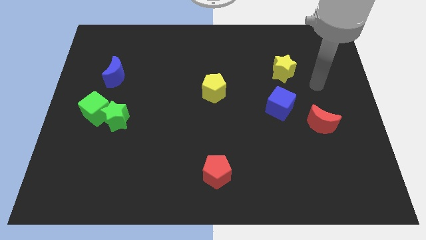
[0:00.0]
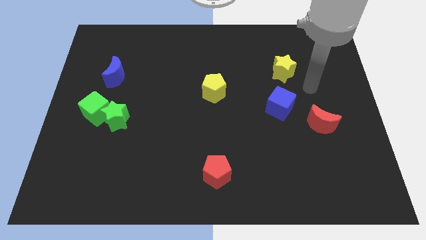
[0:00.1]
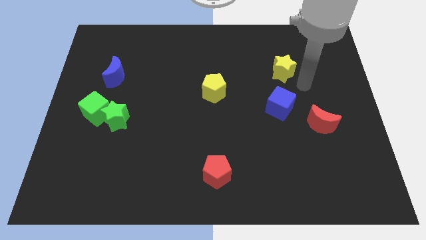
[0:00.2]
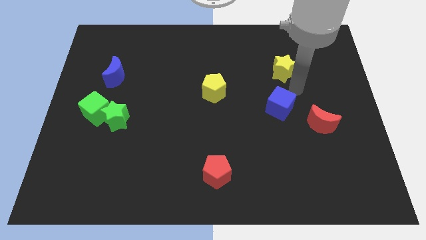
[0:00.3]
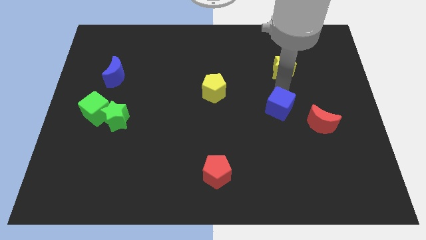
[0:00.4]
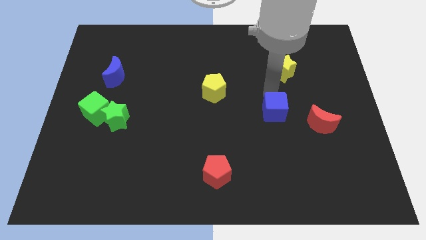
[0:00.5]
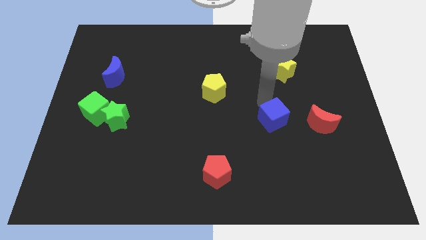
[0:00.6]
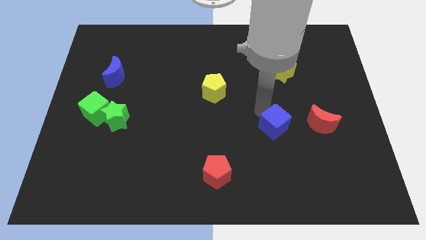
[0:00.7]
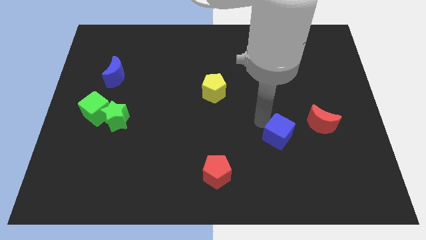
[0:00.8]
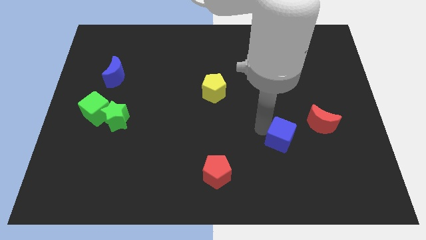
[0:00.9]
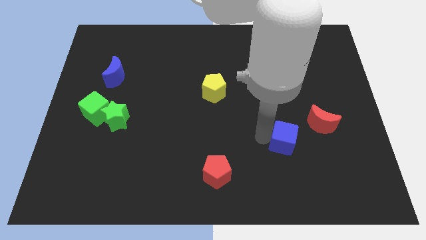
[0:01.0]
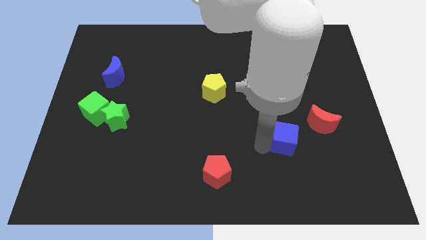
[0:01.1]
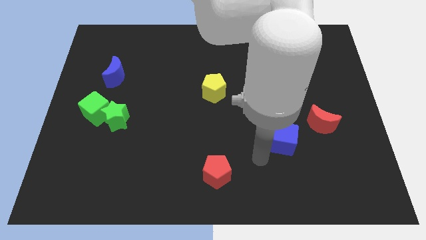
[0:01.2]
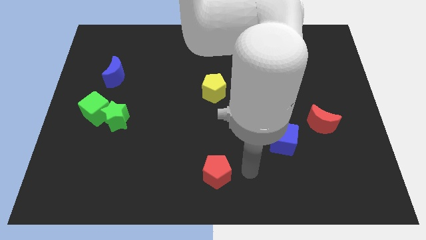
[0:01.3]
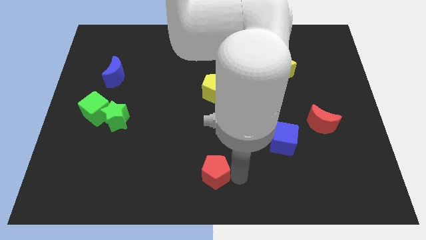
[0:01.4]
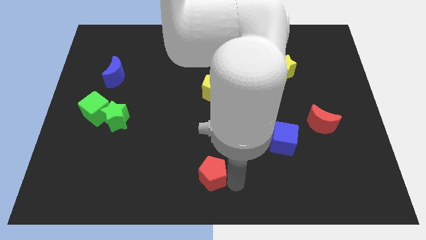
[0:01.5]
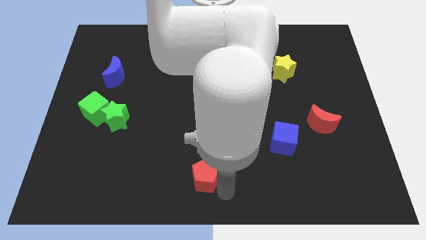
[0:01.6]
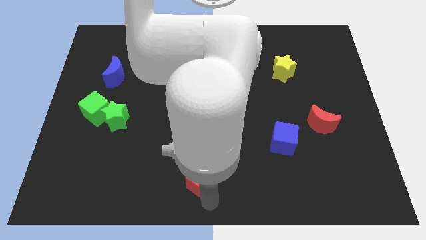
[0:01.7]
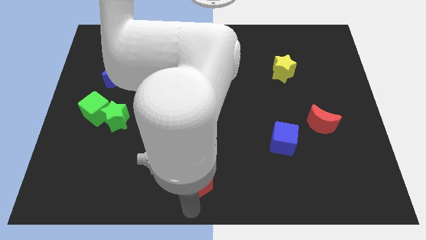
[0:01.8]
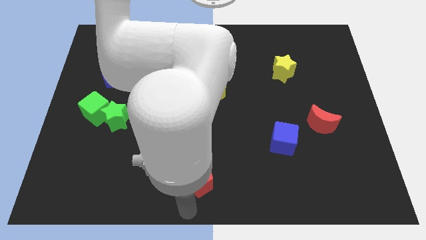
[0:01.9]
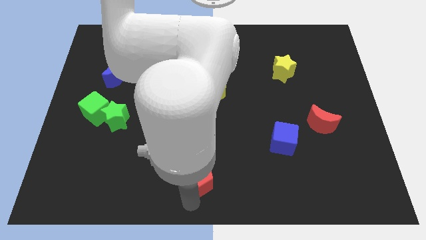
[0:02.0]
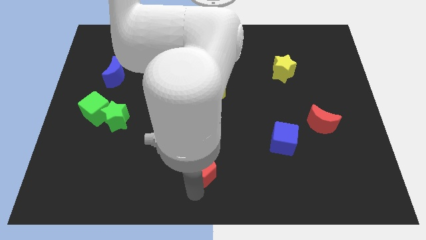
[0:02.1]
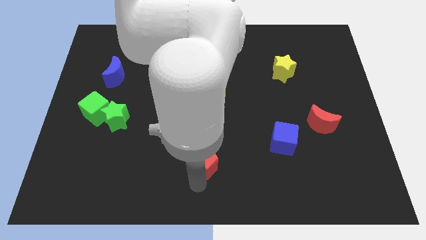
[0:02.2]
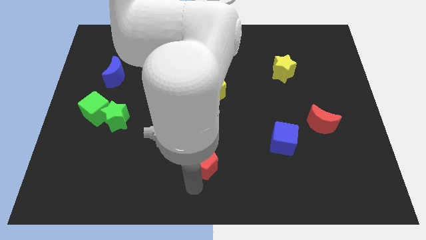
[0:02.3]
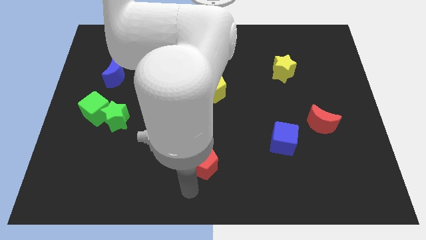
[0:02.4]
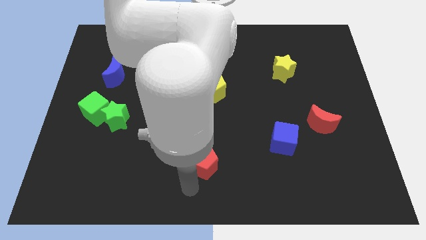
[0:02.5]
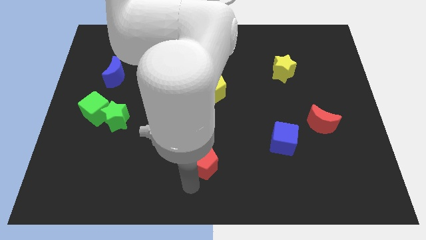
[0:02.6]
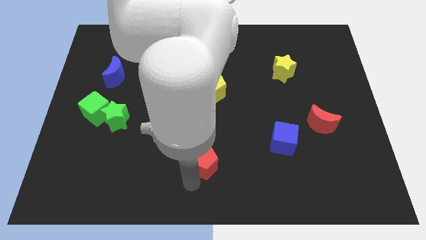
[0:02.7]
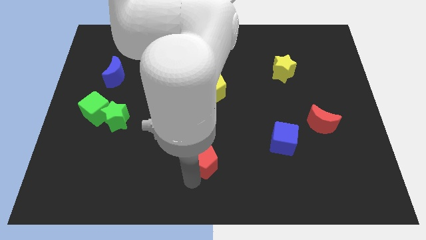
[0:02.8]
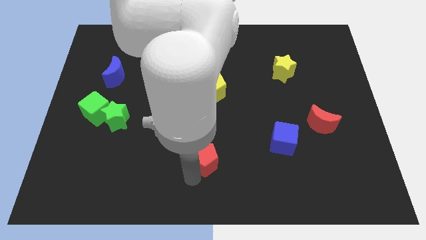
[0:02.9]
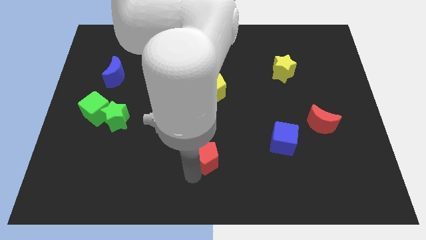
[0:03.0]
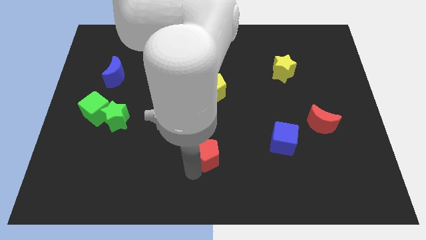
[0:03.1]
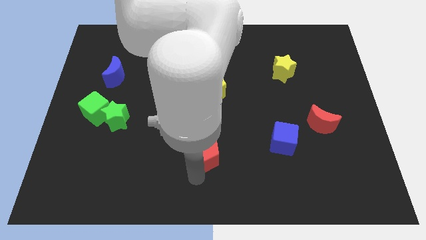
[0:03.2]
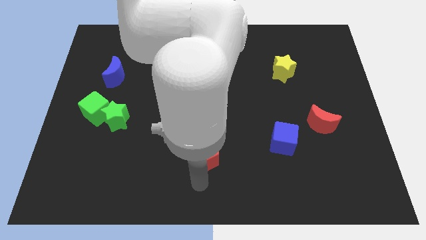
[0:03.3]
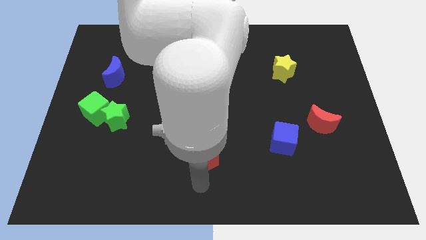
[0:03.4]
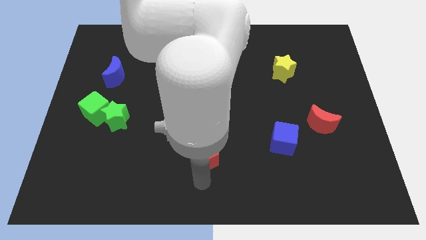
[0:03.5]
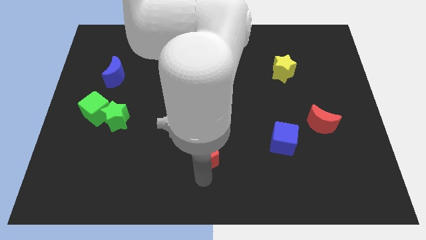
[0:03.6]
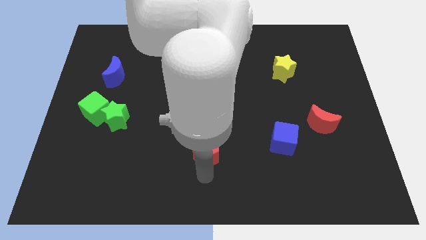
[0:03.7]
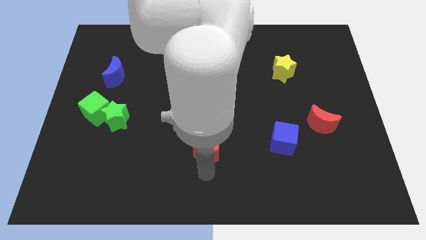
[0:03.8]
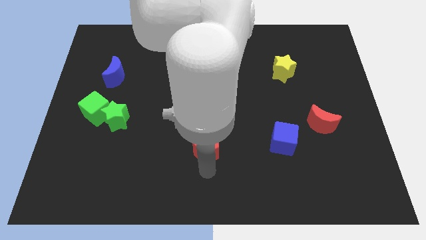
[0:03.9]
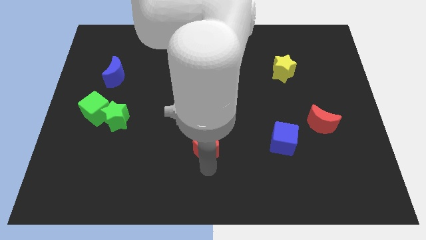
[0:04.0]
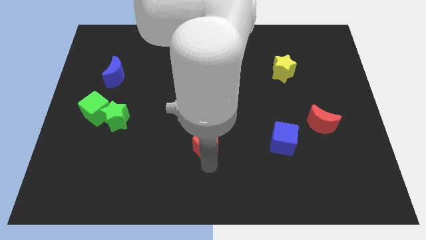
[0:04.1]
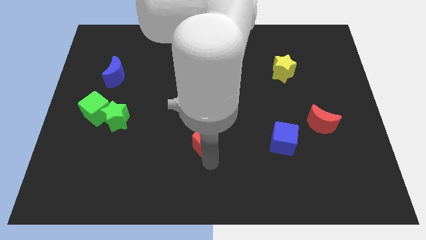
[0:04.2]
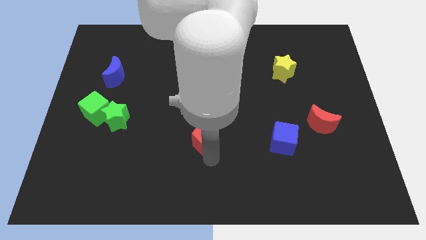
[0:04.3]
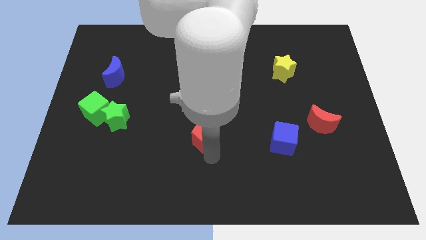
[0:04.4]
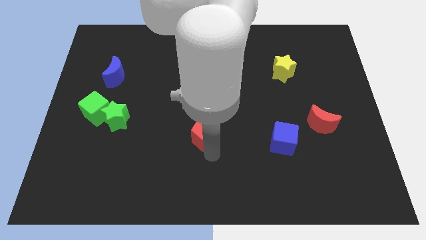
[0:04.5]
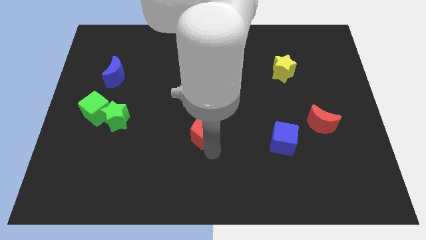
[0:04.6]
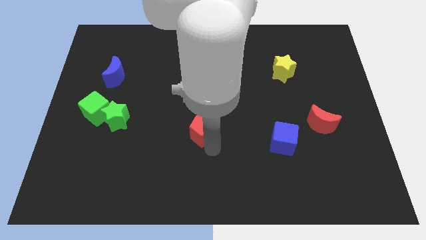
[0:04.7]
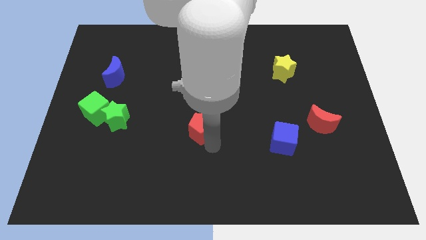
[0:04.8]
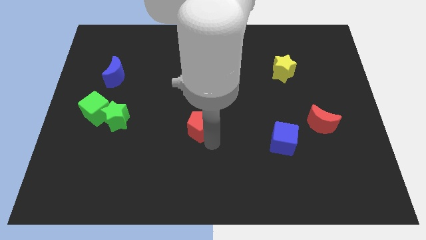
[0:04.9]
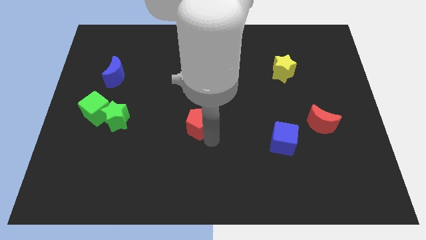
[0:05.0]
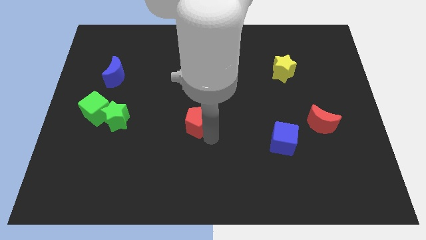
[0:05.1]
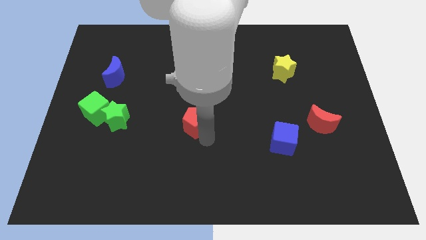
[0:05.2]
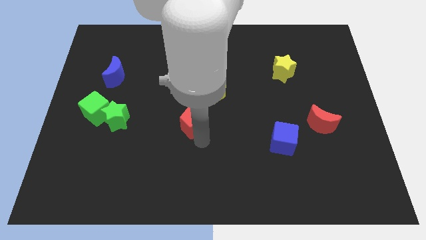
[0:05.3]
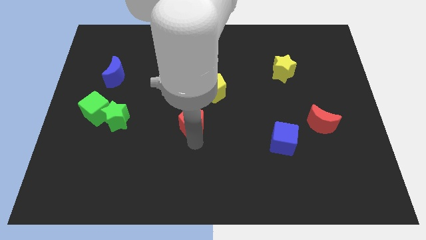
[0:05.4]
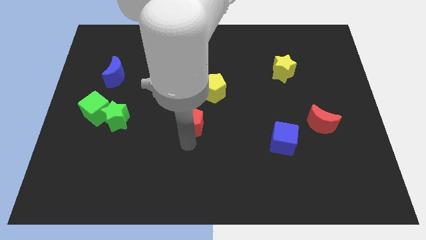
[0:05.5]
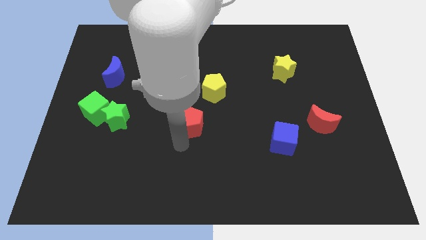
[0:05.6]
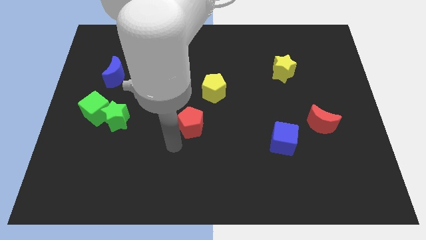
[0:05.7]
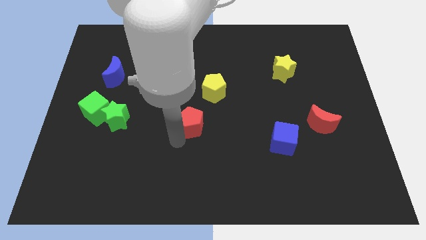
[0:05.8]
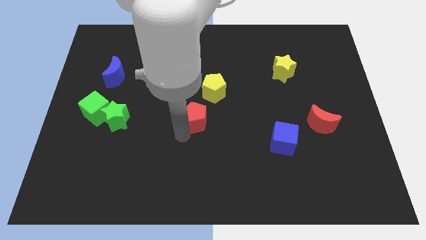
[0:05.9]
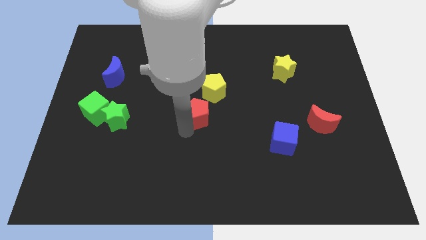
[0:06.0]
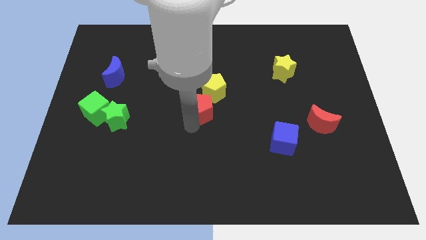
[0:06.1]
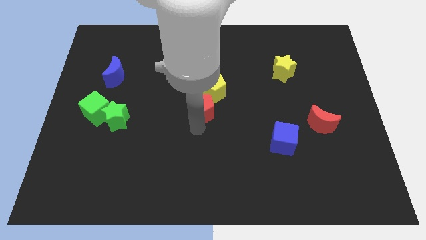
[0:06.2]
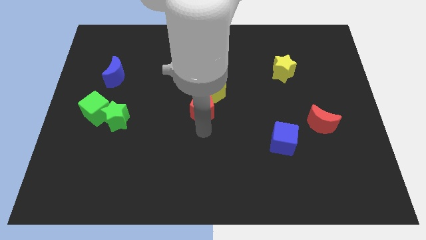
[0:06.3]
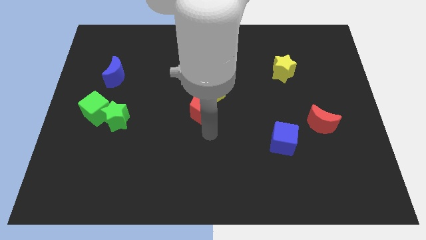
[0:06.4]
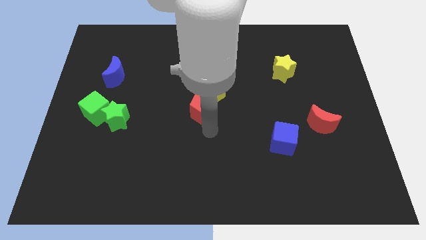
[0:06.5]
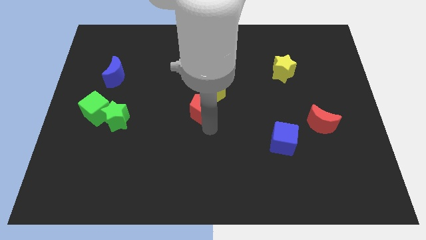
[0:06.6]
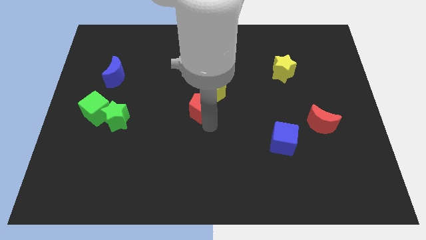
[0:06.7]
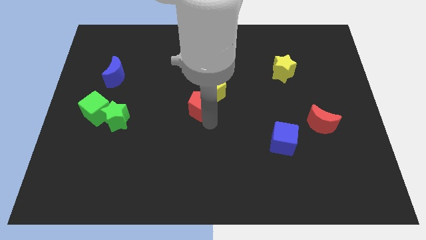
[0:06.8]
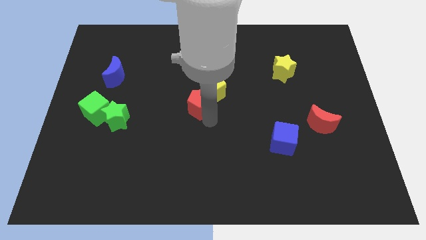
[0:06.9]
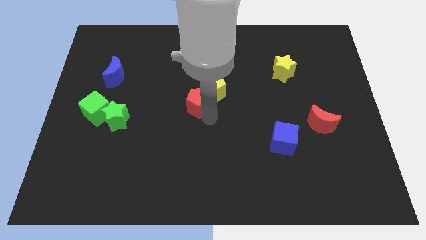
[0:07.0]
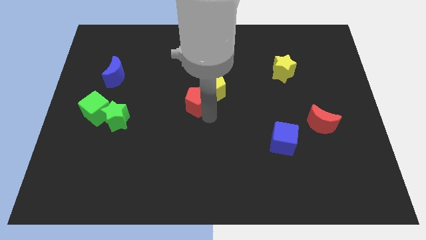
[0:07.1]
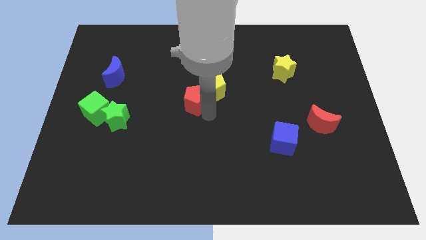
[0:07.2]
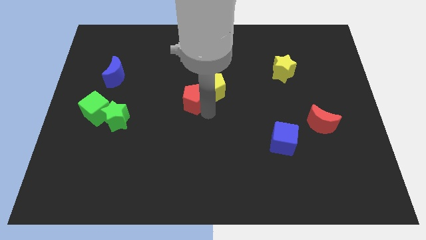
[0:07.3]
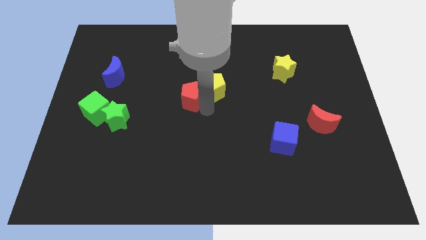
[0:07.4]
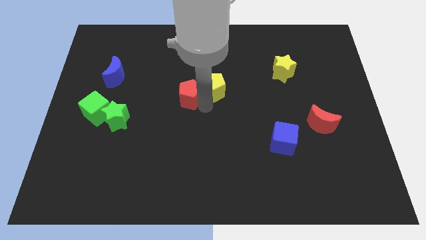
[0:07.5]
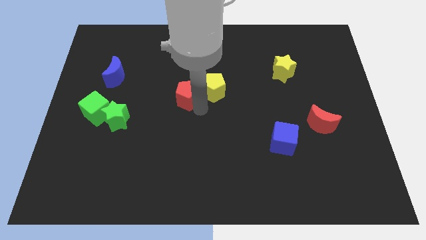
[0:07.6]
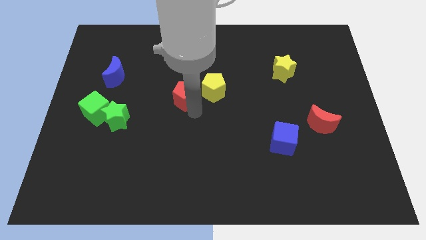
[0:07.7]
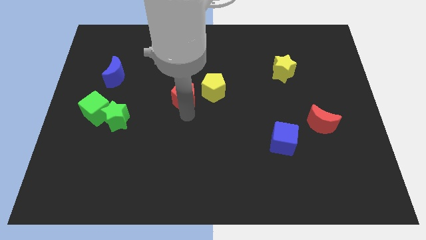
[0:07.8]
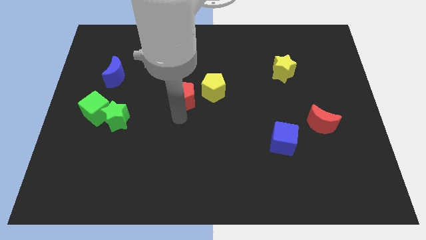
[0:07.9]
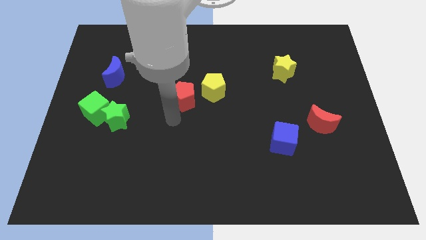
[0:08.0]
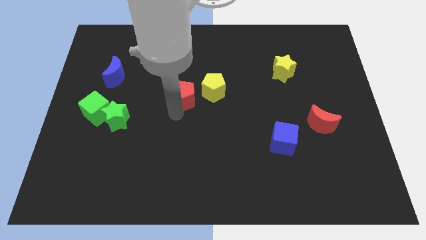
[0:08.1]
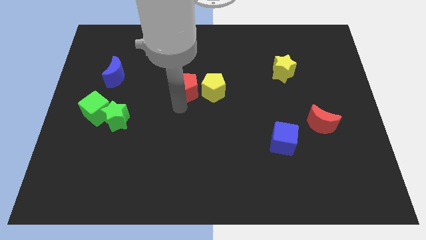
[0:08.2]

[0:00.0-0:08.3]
slide the red pentagon up
